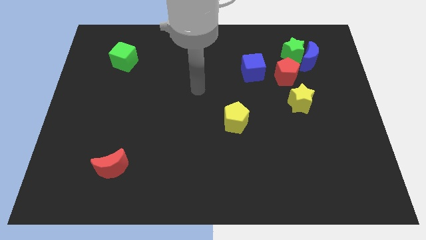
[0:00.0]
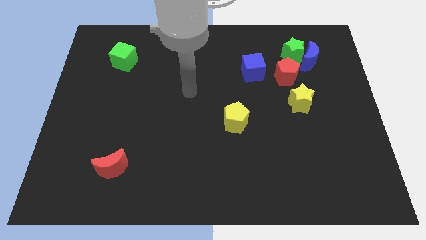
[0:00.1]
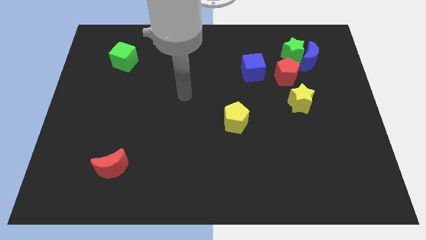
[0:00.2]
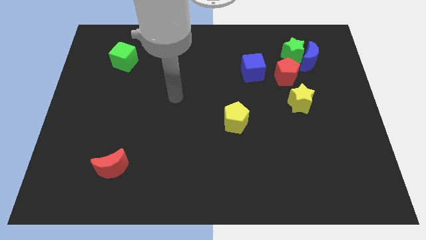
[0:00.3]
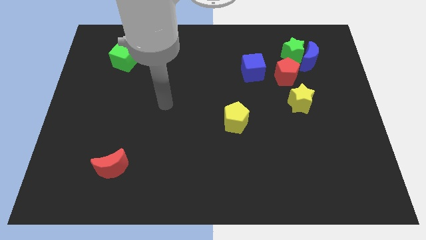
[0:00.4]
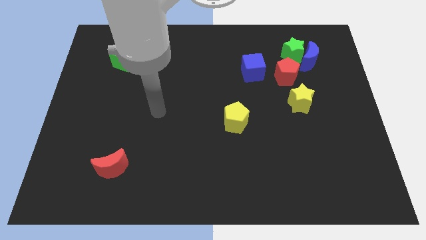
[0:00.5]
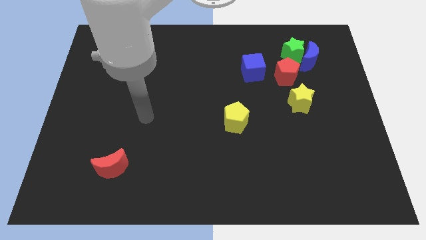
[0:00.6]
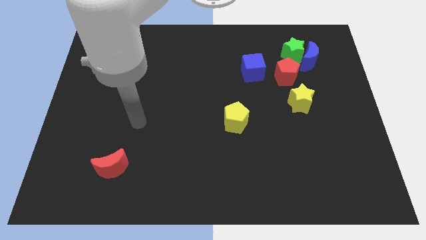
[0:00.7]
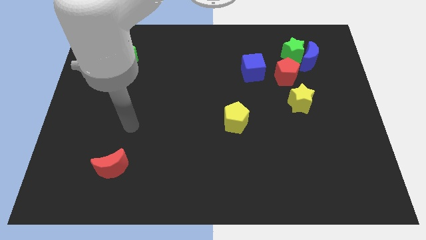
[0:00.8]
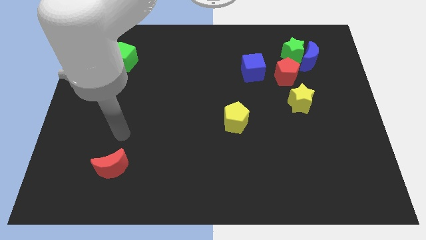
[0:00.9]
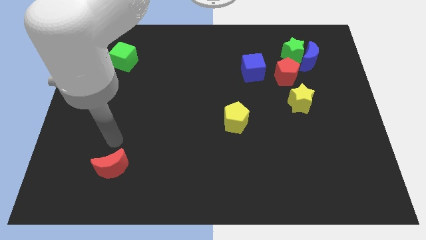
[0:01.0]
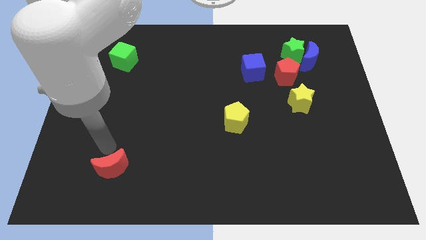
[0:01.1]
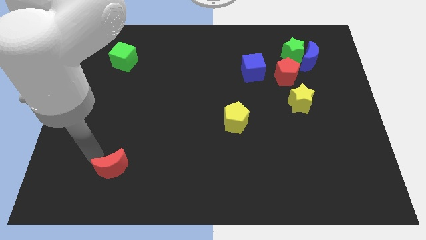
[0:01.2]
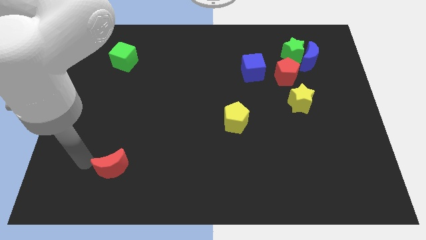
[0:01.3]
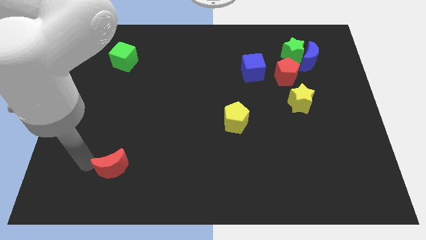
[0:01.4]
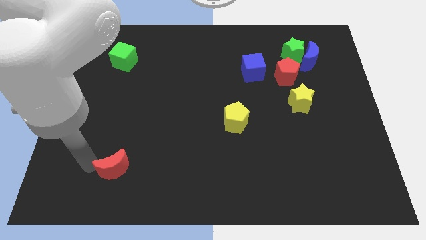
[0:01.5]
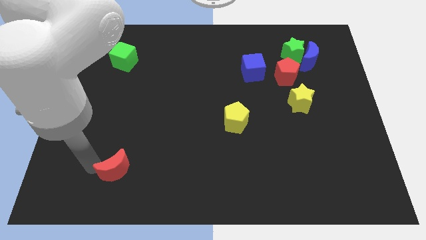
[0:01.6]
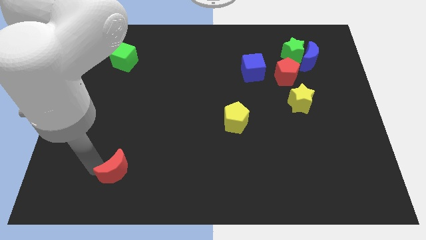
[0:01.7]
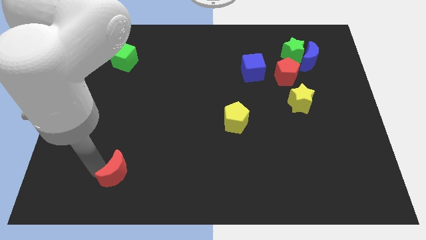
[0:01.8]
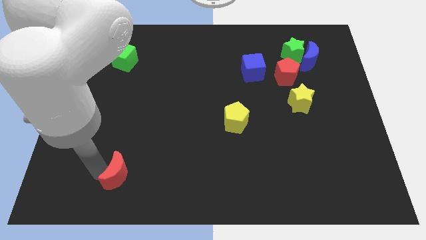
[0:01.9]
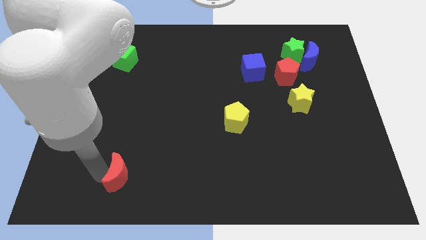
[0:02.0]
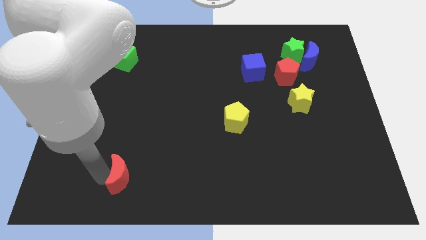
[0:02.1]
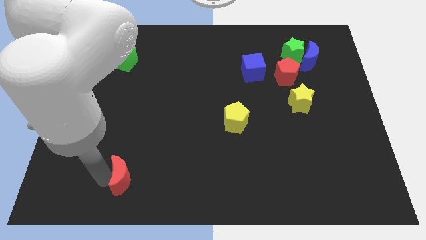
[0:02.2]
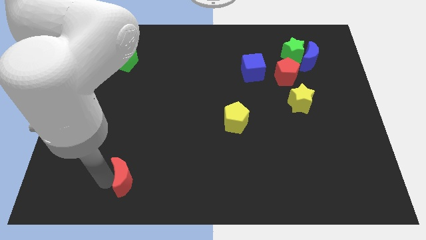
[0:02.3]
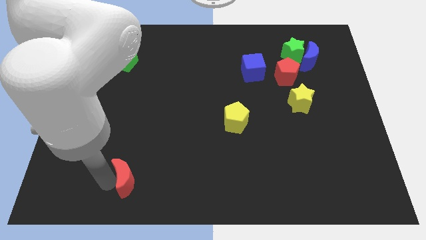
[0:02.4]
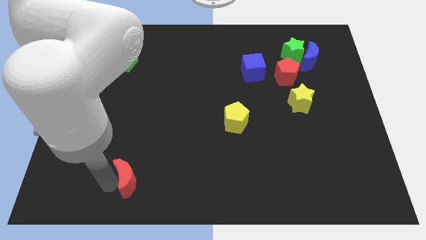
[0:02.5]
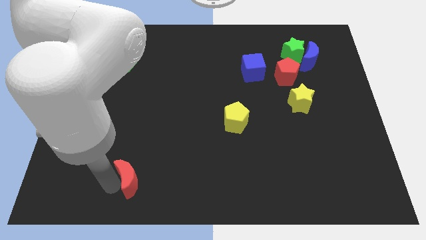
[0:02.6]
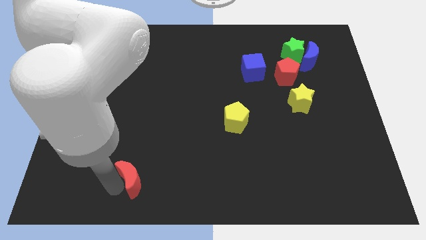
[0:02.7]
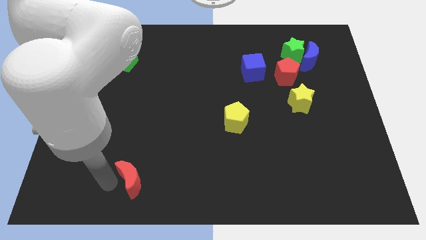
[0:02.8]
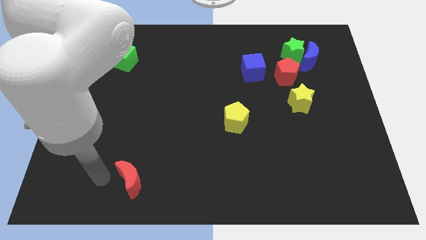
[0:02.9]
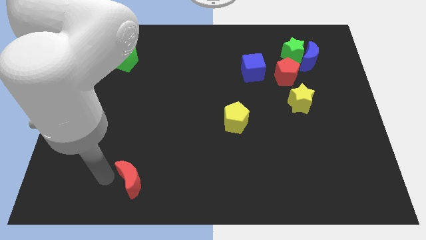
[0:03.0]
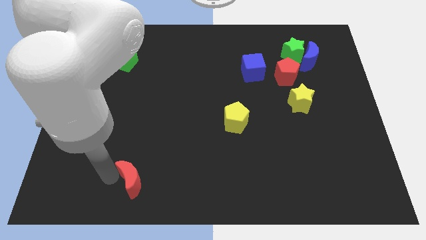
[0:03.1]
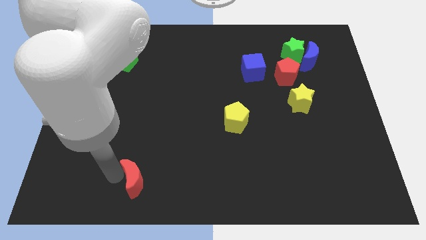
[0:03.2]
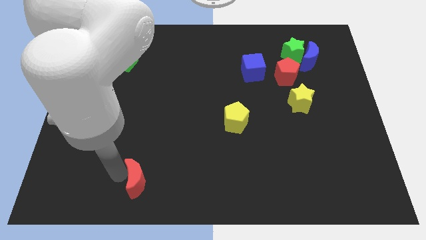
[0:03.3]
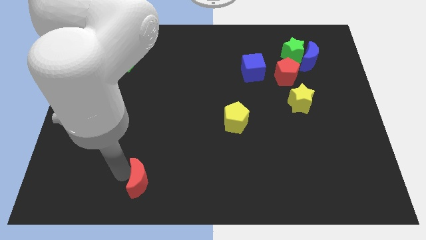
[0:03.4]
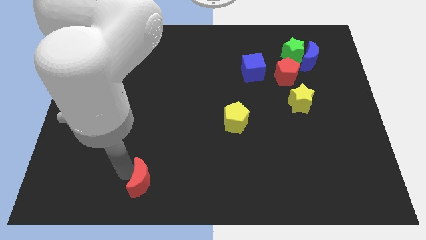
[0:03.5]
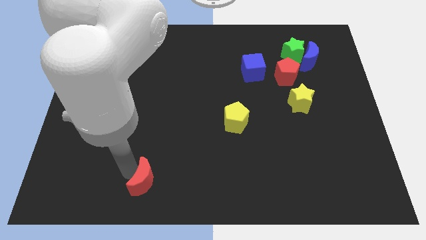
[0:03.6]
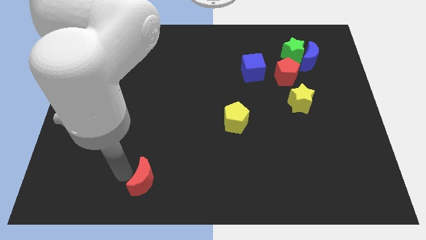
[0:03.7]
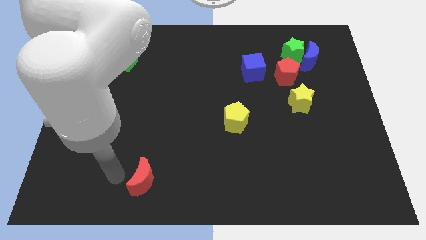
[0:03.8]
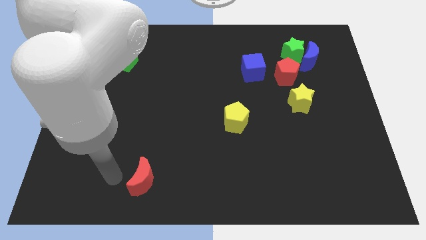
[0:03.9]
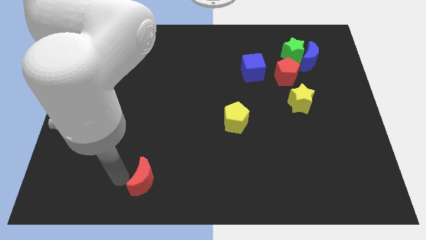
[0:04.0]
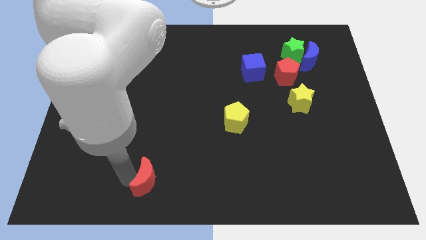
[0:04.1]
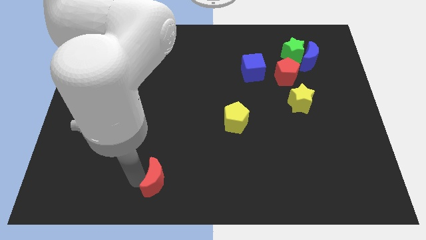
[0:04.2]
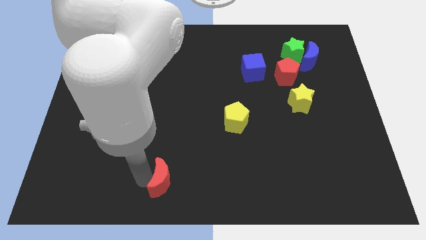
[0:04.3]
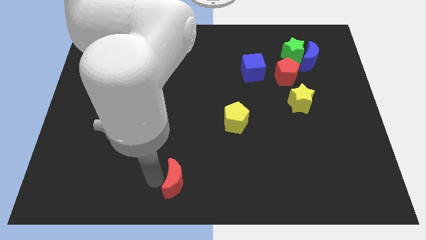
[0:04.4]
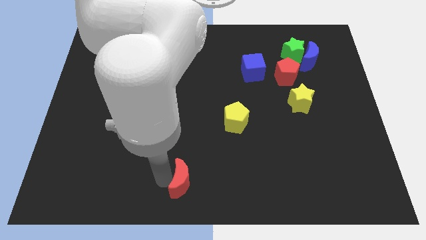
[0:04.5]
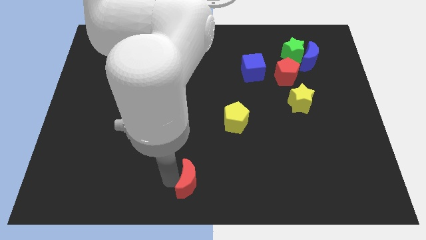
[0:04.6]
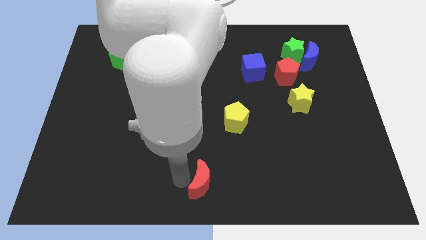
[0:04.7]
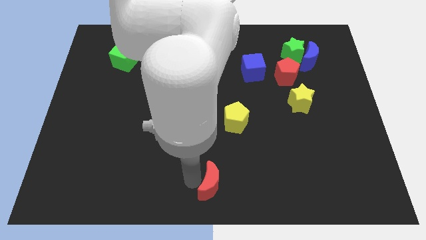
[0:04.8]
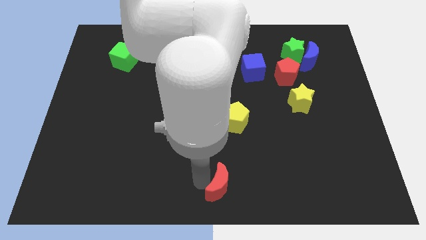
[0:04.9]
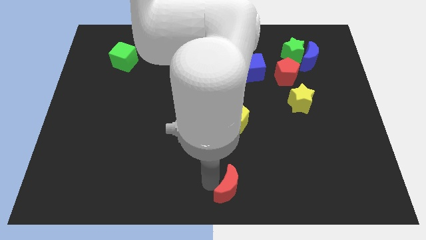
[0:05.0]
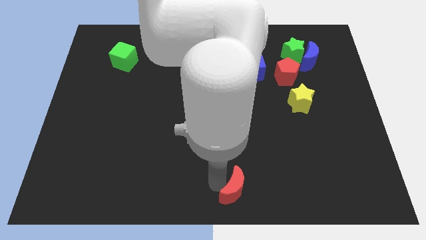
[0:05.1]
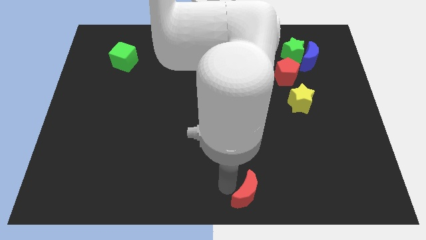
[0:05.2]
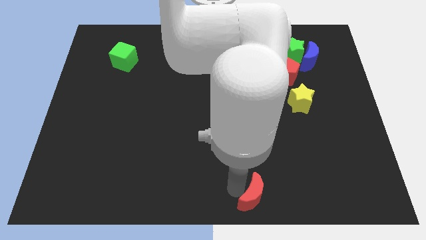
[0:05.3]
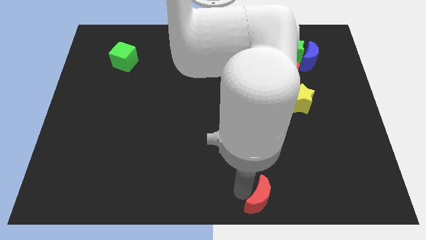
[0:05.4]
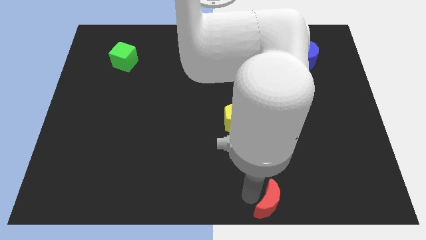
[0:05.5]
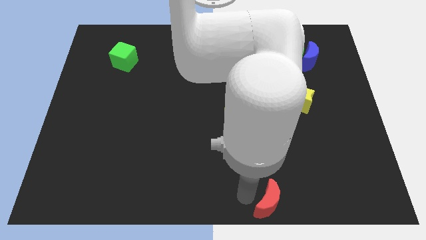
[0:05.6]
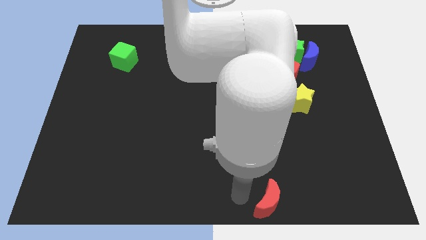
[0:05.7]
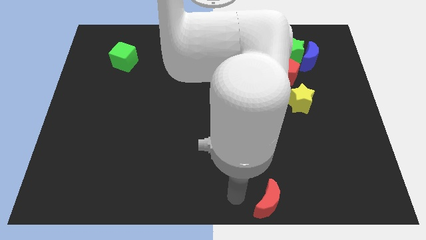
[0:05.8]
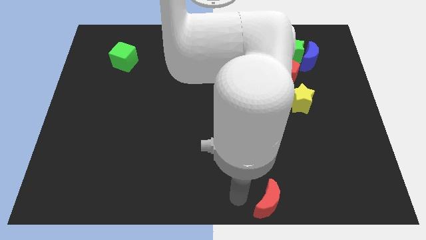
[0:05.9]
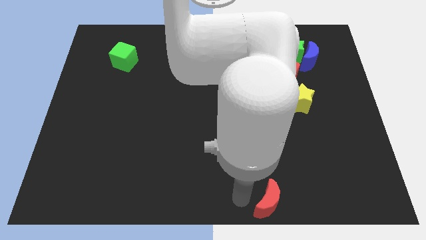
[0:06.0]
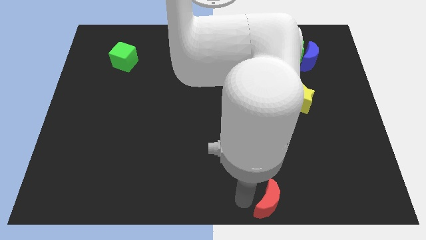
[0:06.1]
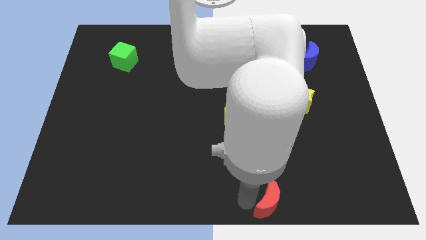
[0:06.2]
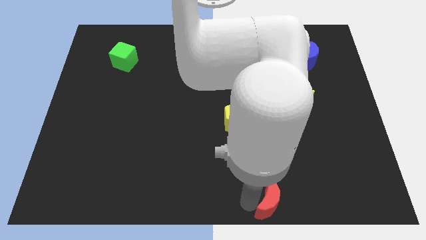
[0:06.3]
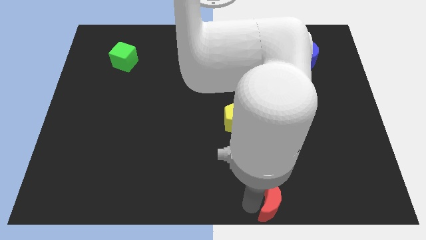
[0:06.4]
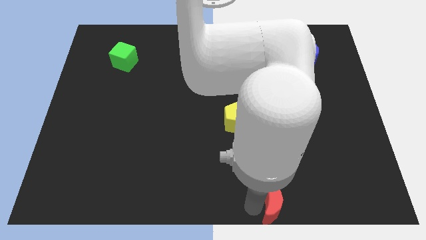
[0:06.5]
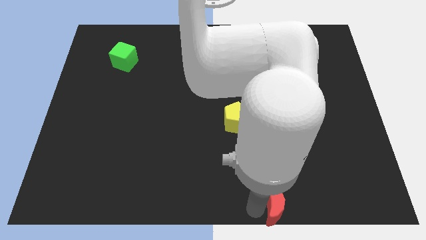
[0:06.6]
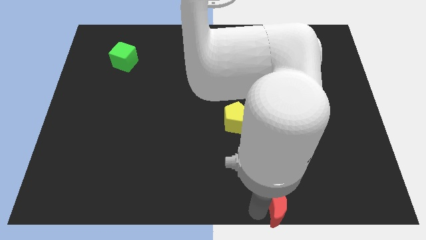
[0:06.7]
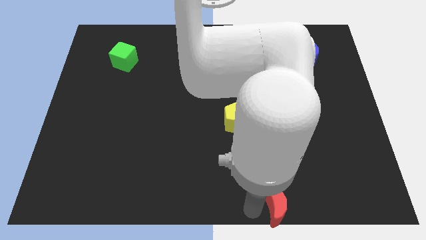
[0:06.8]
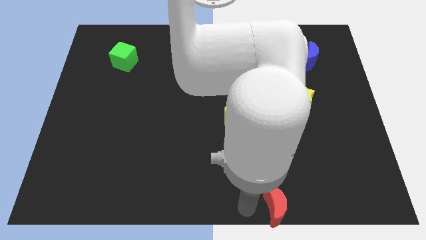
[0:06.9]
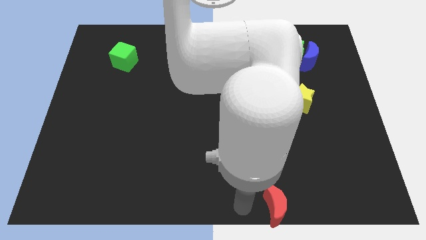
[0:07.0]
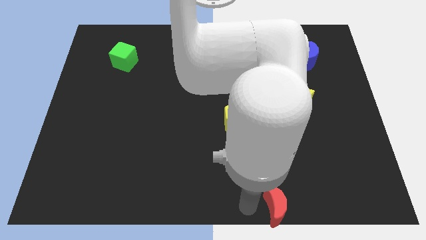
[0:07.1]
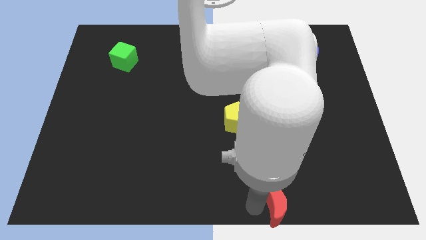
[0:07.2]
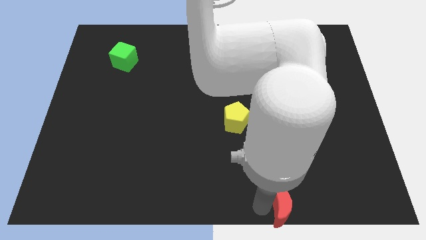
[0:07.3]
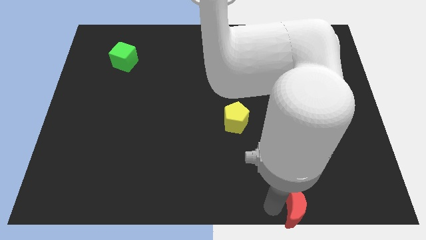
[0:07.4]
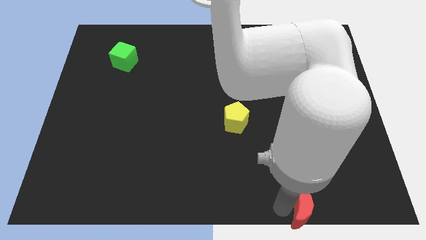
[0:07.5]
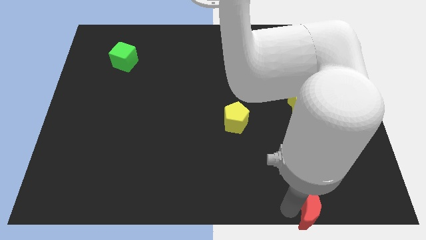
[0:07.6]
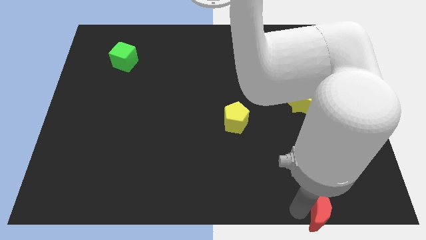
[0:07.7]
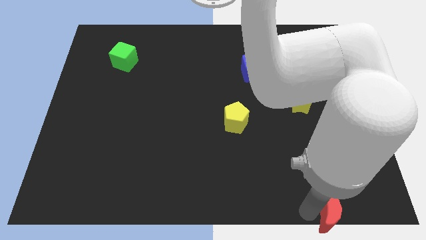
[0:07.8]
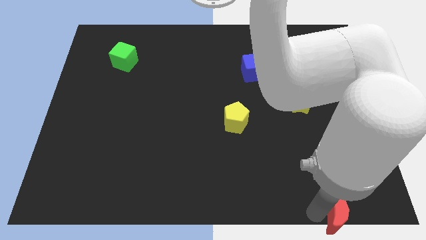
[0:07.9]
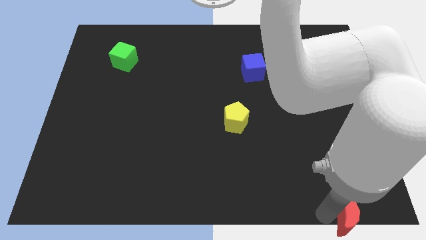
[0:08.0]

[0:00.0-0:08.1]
put the red moon to the bottom right of the board
